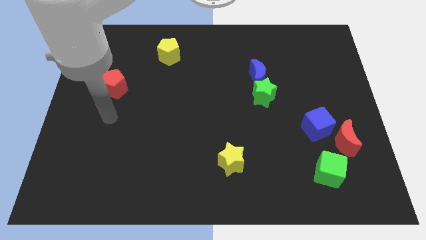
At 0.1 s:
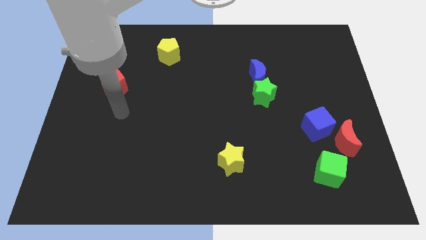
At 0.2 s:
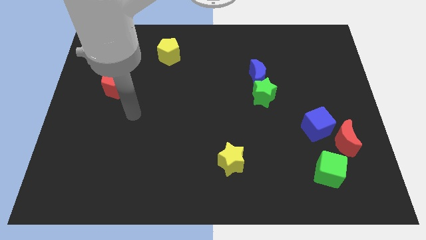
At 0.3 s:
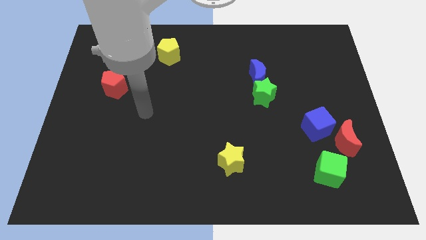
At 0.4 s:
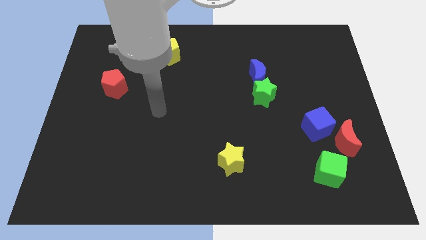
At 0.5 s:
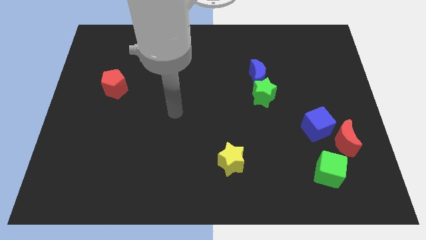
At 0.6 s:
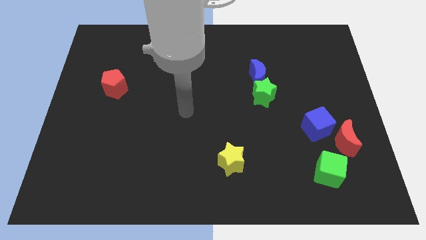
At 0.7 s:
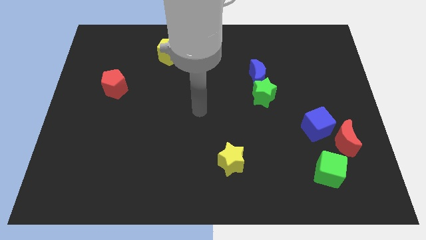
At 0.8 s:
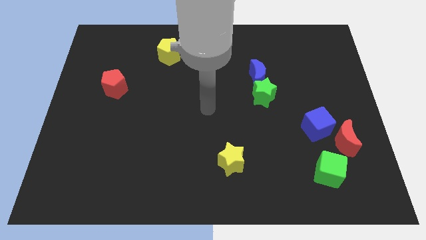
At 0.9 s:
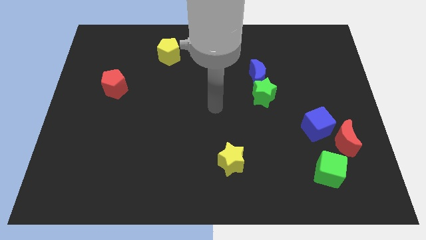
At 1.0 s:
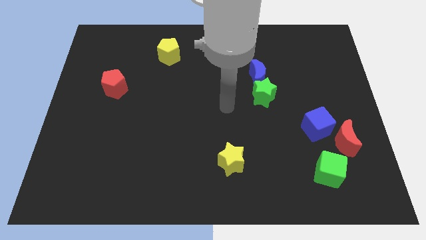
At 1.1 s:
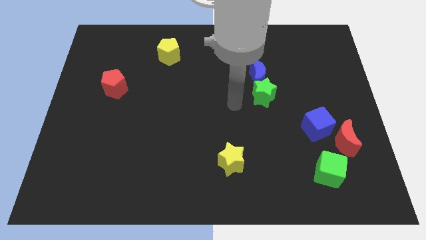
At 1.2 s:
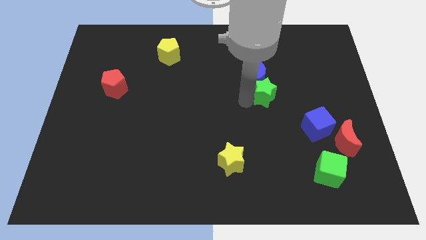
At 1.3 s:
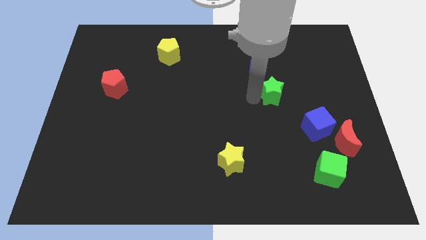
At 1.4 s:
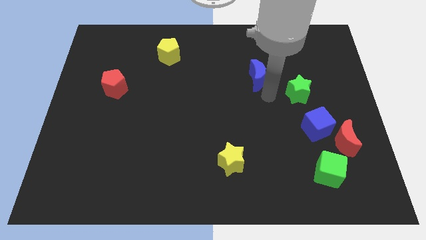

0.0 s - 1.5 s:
move the blue moon away from the green star

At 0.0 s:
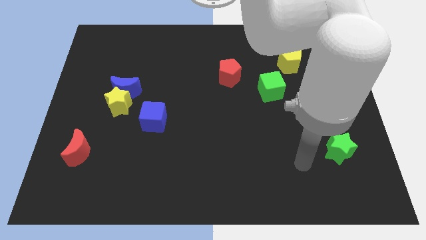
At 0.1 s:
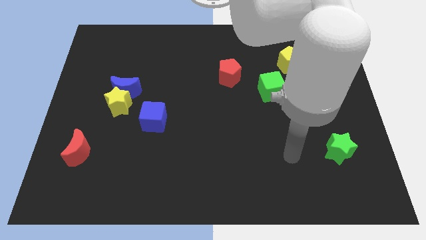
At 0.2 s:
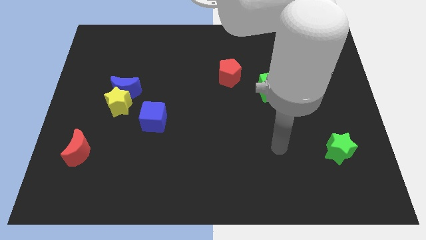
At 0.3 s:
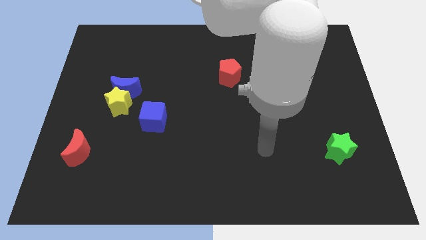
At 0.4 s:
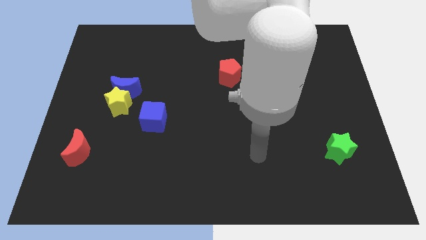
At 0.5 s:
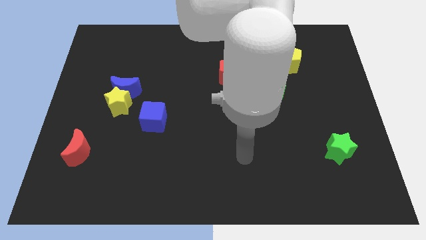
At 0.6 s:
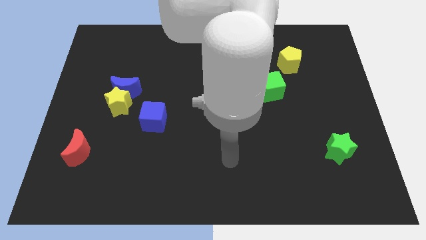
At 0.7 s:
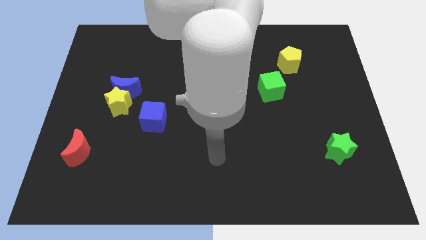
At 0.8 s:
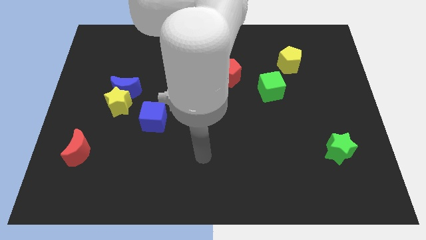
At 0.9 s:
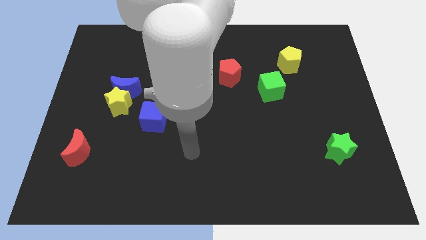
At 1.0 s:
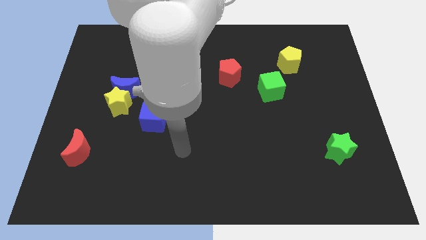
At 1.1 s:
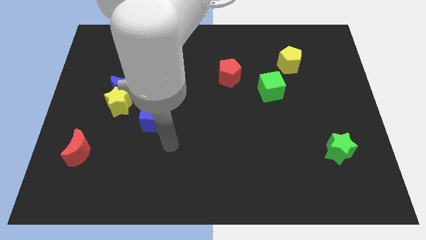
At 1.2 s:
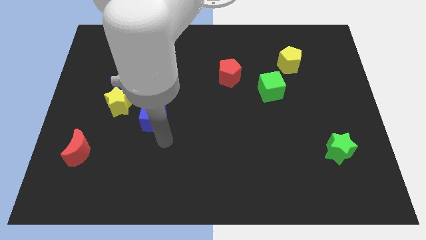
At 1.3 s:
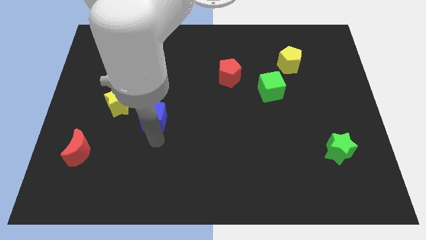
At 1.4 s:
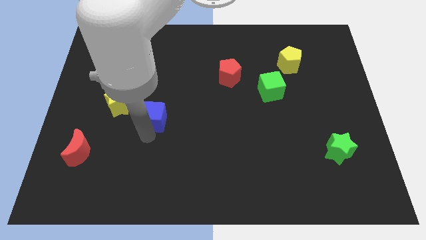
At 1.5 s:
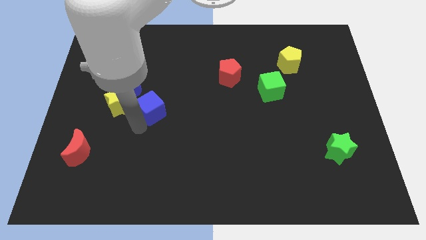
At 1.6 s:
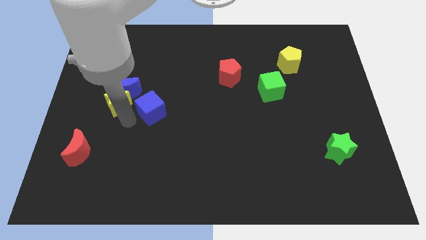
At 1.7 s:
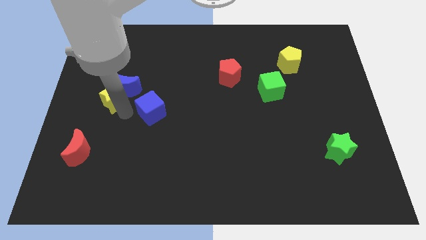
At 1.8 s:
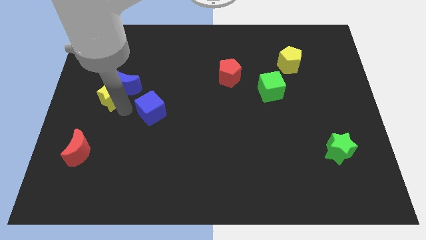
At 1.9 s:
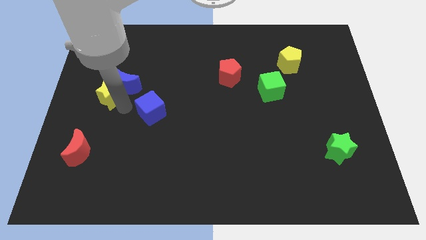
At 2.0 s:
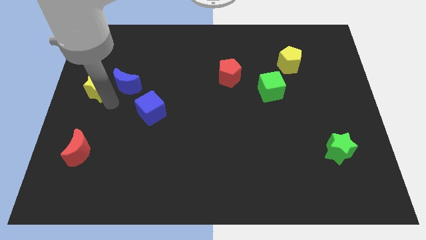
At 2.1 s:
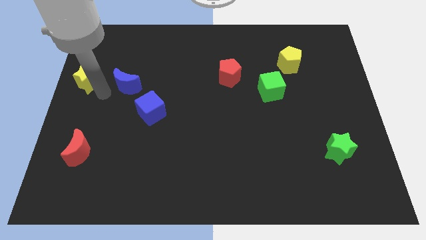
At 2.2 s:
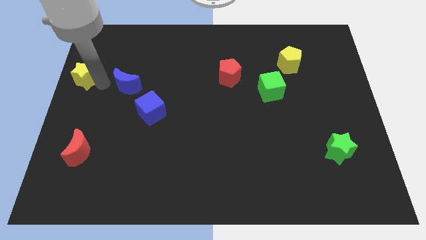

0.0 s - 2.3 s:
move the blue moon away from the yellow star

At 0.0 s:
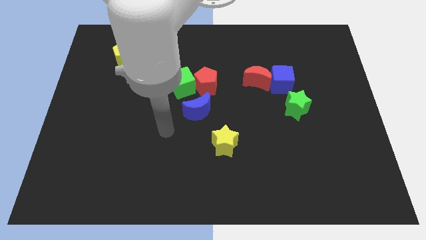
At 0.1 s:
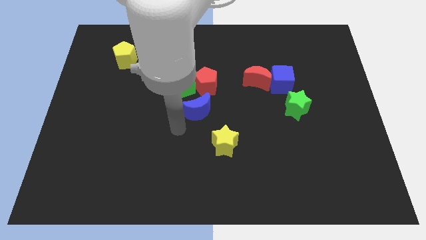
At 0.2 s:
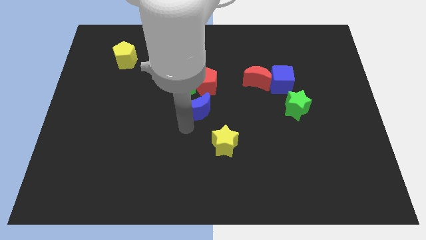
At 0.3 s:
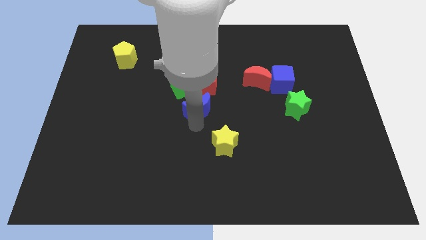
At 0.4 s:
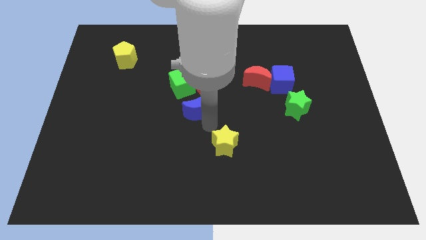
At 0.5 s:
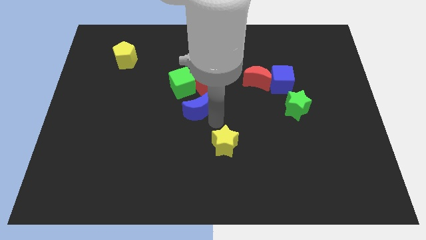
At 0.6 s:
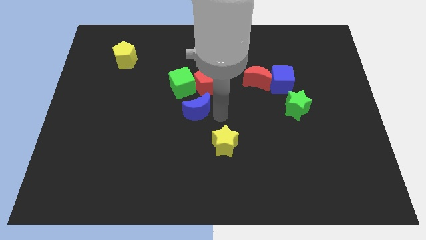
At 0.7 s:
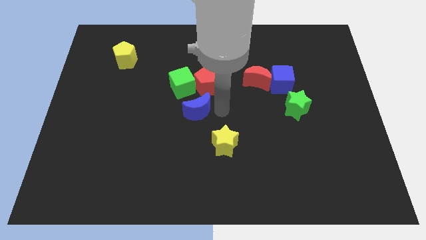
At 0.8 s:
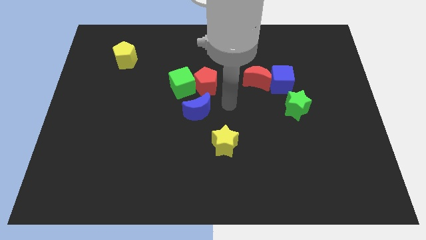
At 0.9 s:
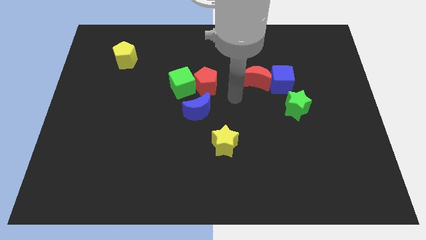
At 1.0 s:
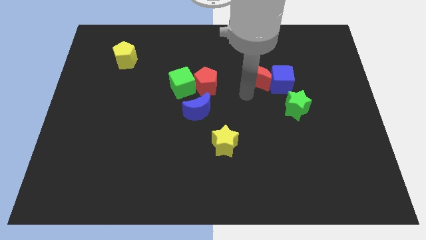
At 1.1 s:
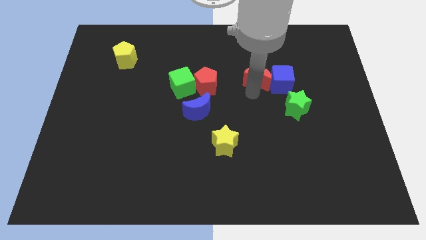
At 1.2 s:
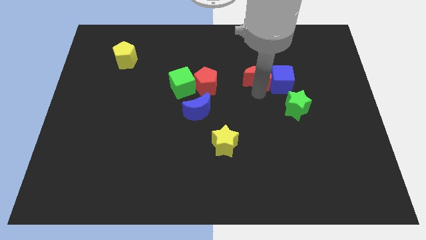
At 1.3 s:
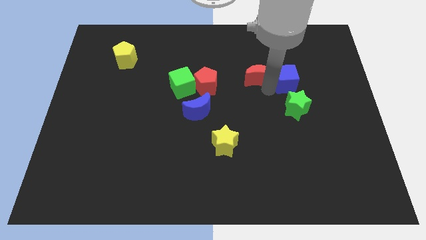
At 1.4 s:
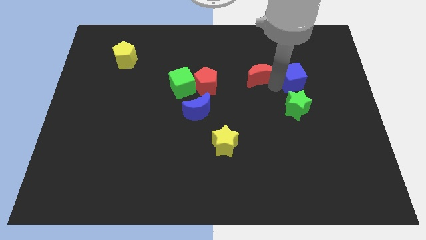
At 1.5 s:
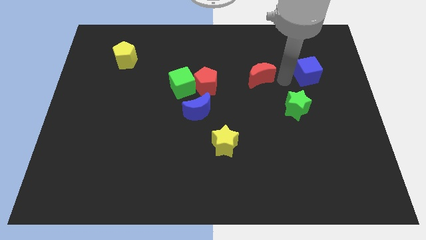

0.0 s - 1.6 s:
move the red moon away from the blue cube

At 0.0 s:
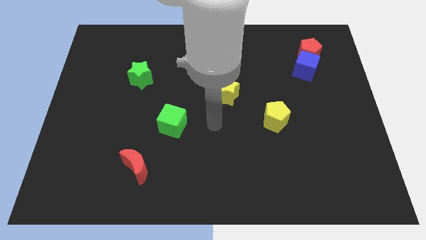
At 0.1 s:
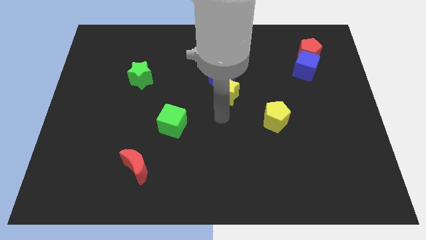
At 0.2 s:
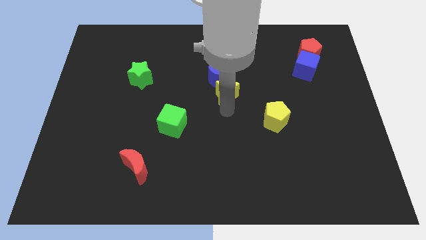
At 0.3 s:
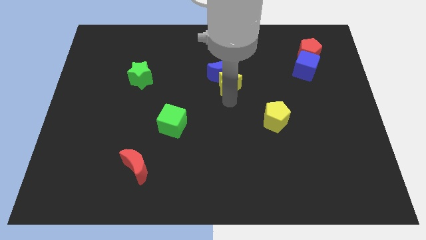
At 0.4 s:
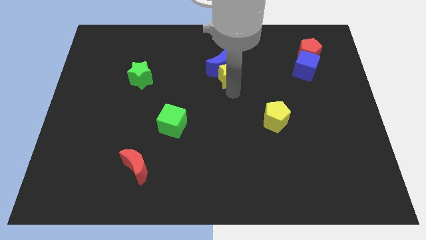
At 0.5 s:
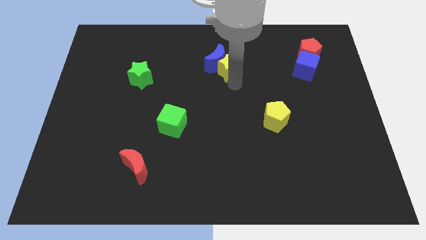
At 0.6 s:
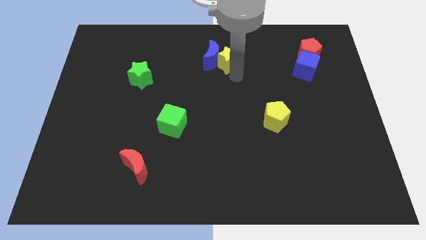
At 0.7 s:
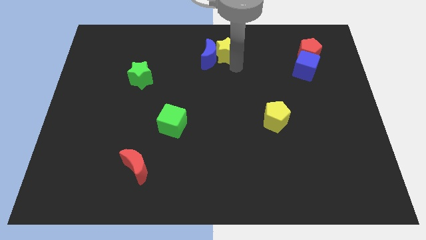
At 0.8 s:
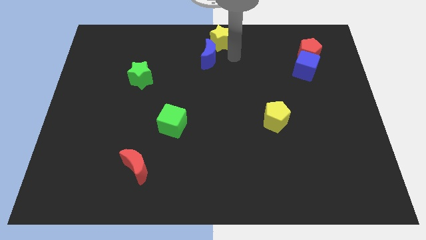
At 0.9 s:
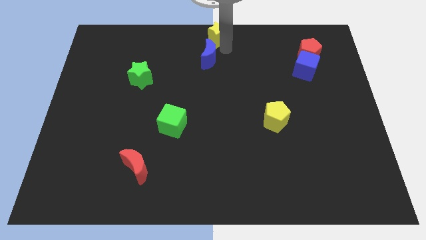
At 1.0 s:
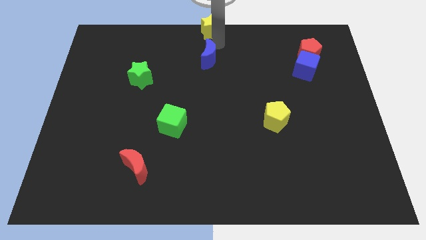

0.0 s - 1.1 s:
separate the blue moon from the yellow star

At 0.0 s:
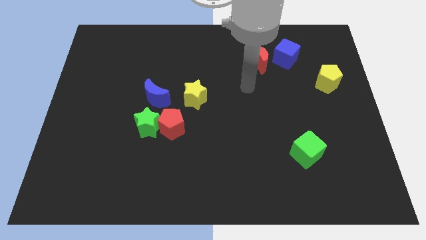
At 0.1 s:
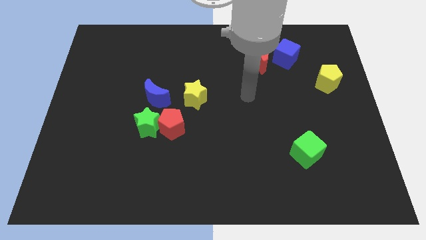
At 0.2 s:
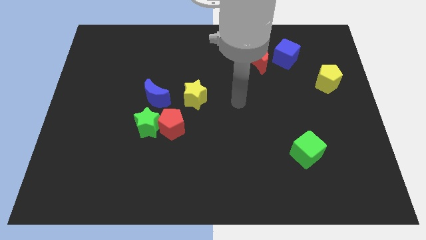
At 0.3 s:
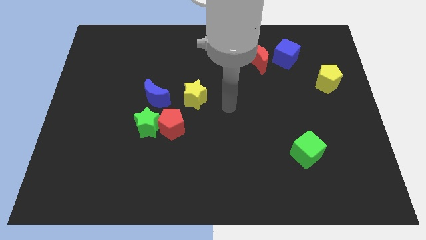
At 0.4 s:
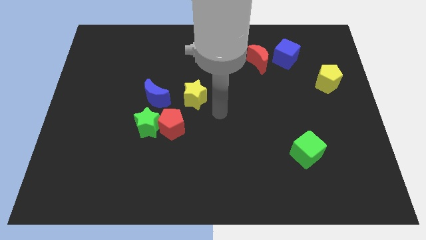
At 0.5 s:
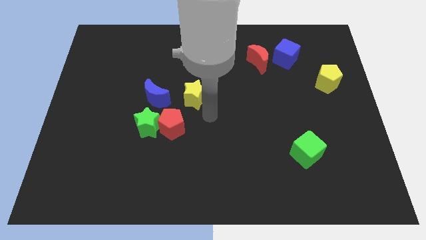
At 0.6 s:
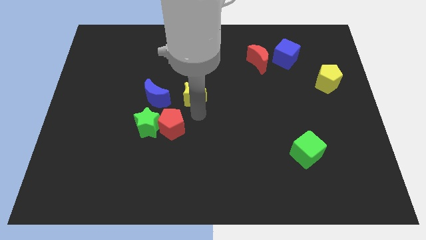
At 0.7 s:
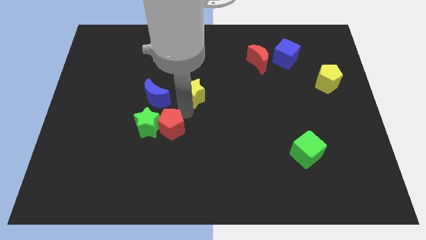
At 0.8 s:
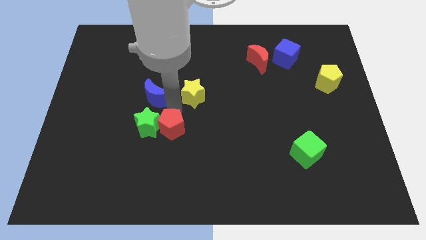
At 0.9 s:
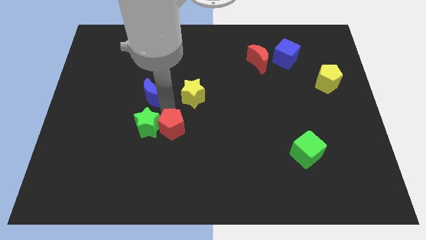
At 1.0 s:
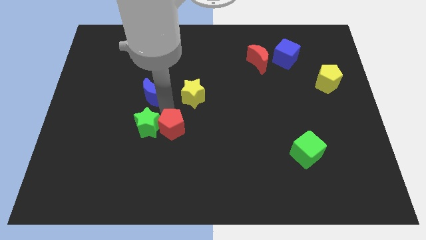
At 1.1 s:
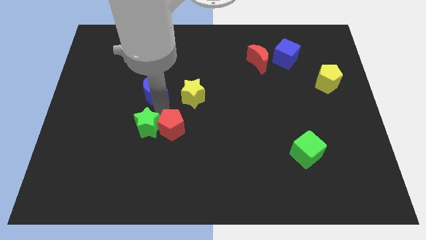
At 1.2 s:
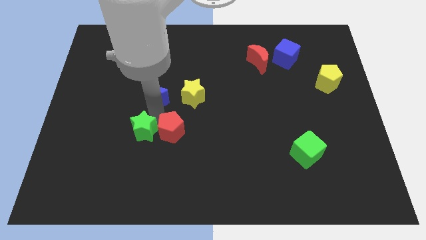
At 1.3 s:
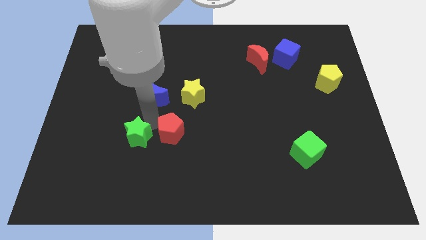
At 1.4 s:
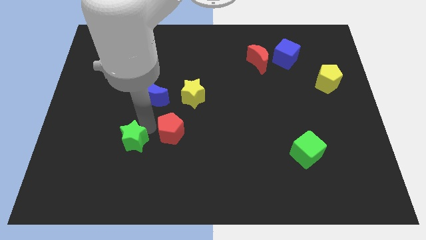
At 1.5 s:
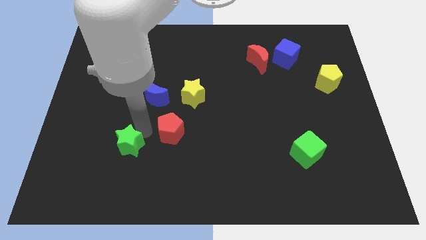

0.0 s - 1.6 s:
pull the green star apart from the red pentagon and blue moon

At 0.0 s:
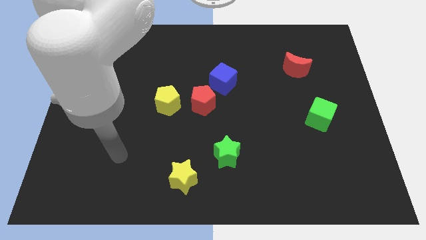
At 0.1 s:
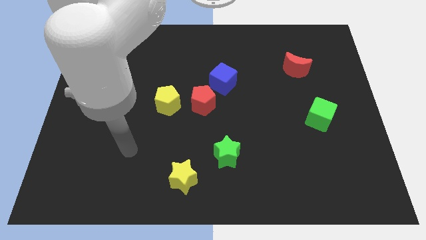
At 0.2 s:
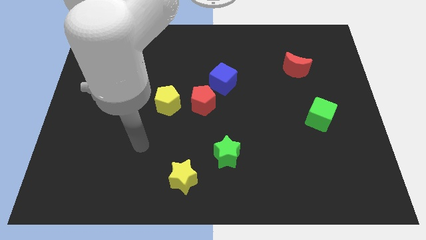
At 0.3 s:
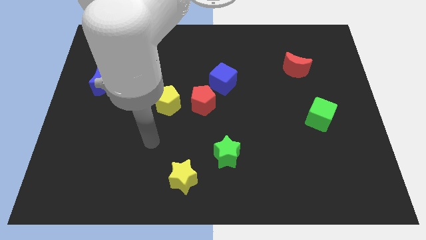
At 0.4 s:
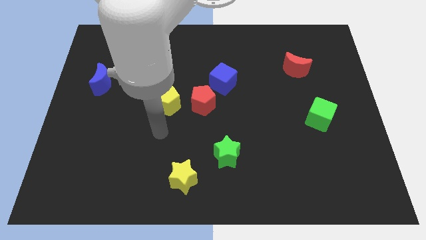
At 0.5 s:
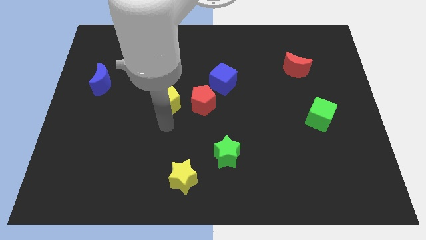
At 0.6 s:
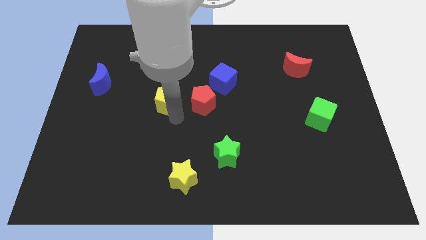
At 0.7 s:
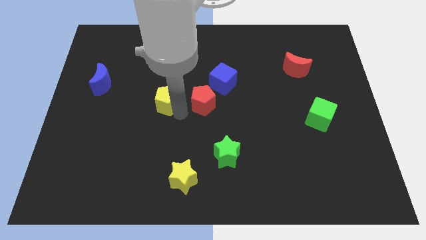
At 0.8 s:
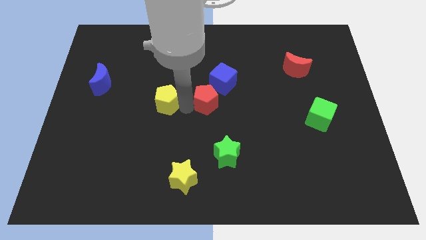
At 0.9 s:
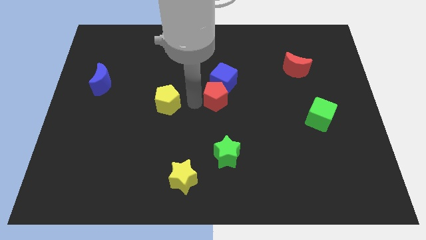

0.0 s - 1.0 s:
pull the yellow pentagon apart from the red pentagon

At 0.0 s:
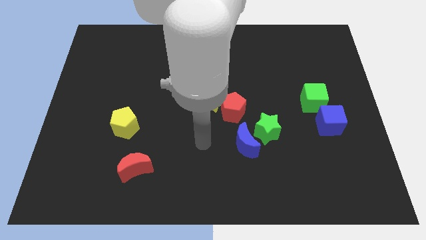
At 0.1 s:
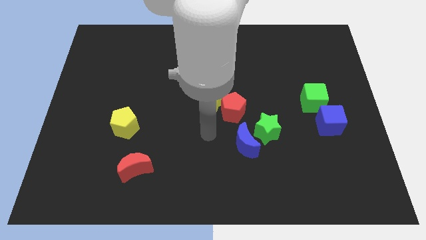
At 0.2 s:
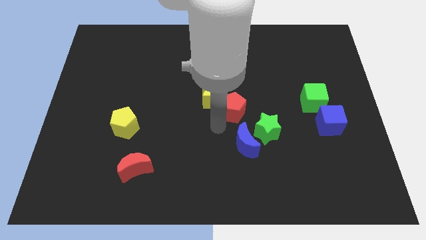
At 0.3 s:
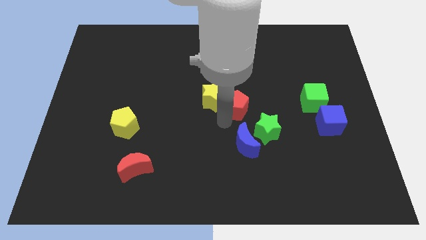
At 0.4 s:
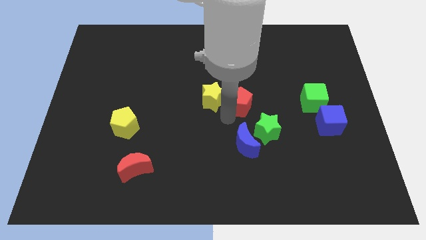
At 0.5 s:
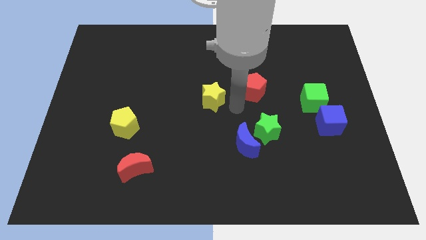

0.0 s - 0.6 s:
pull the yellow star apart from the red pentagon
